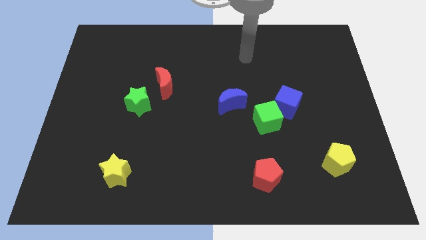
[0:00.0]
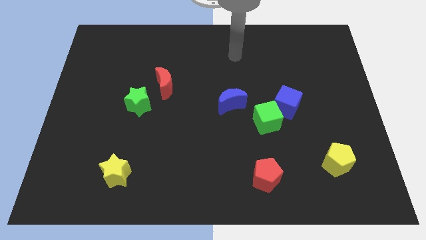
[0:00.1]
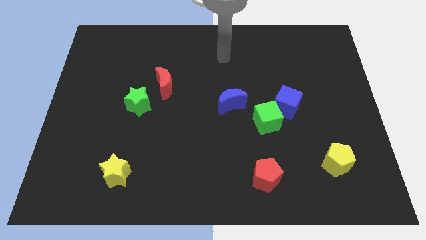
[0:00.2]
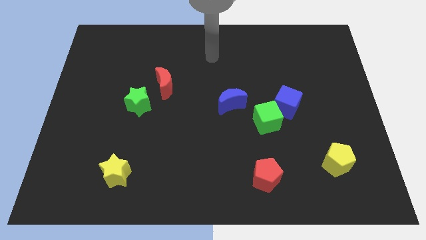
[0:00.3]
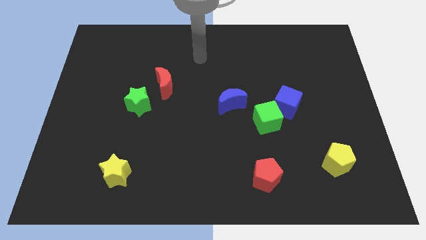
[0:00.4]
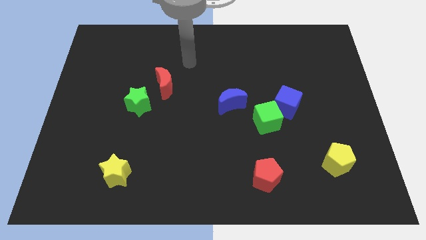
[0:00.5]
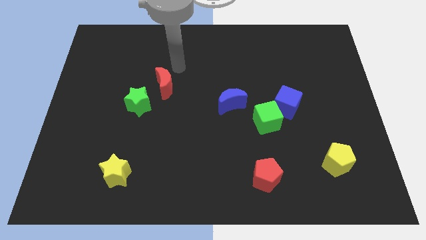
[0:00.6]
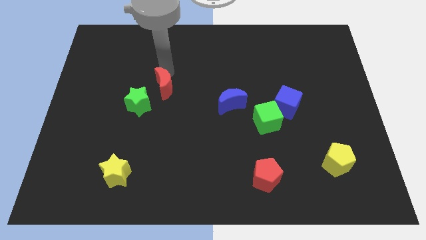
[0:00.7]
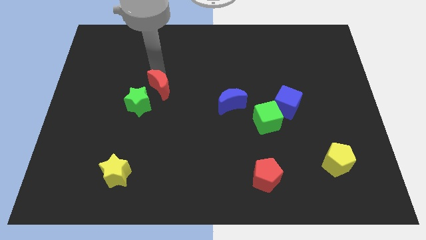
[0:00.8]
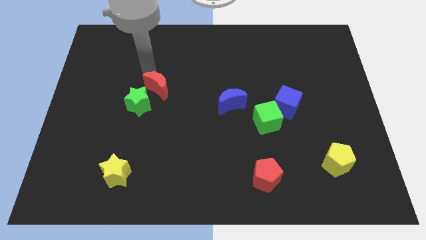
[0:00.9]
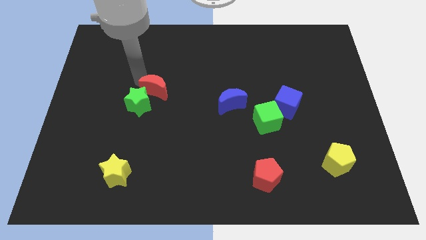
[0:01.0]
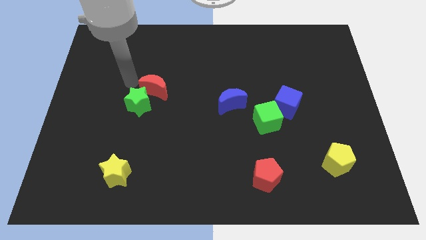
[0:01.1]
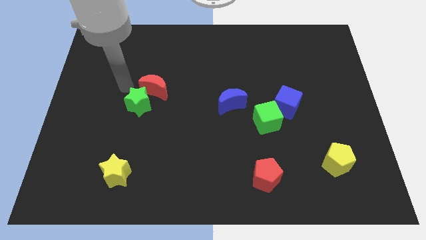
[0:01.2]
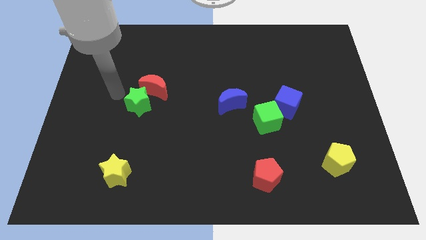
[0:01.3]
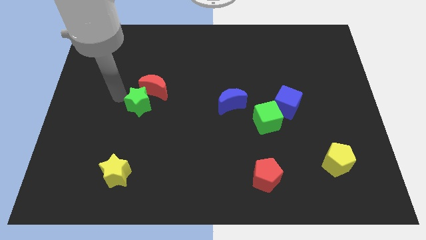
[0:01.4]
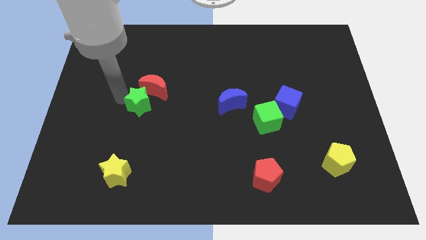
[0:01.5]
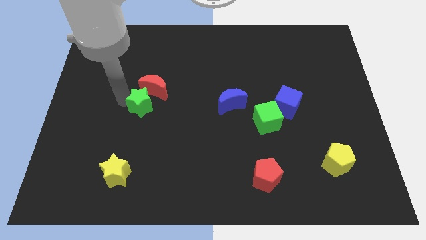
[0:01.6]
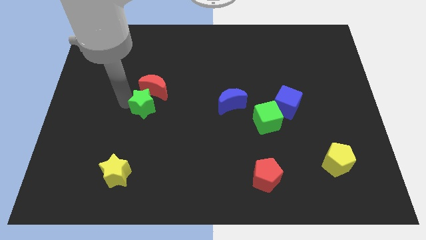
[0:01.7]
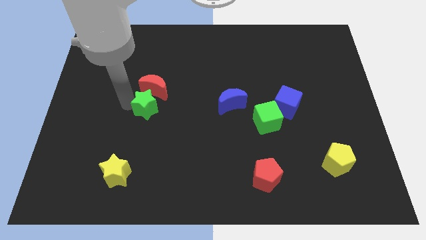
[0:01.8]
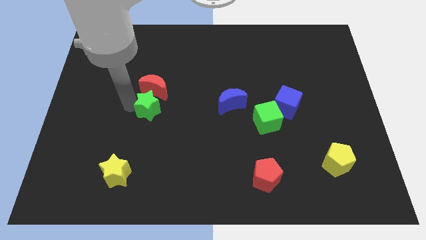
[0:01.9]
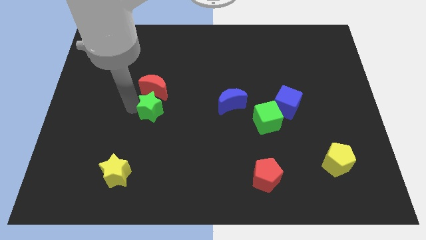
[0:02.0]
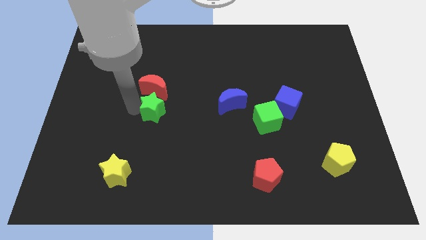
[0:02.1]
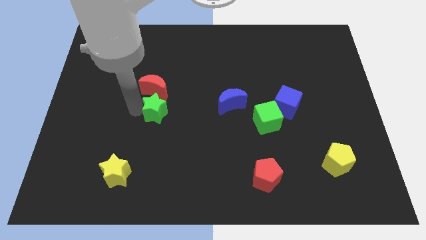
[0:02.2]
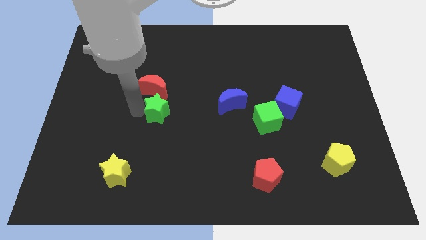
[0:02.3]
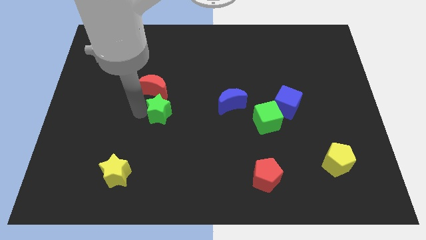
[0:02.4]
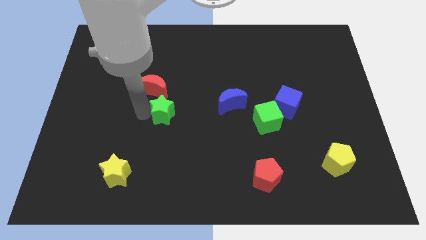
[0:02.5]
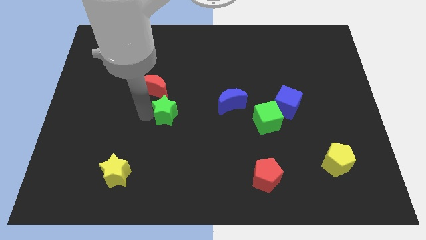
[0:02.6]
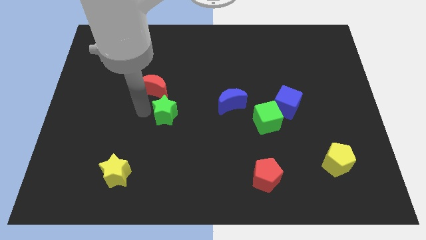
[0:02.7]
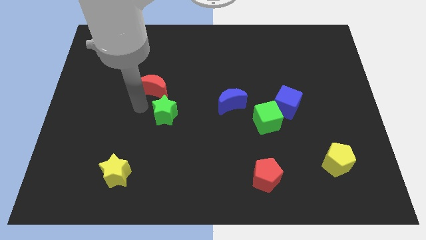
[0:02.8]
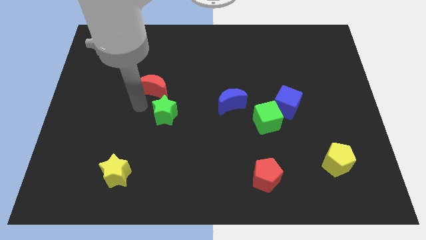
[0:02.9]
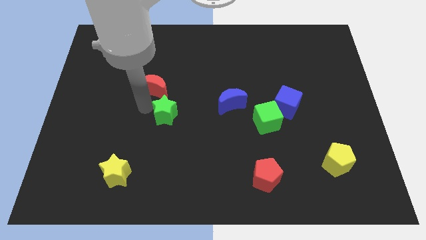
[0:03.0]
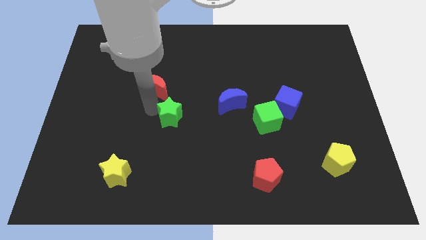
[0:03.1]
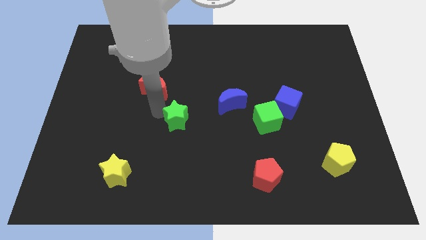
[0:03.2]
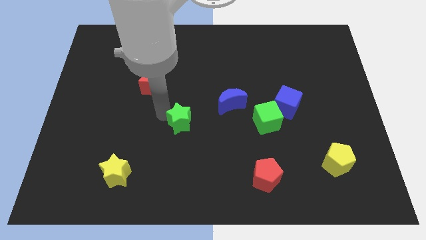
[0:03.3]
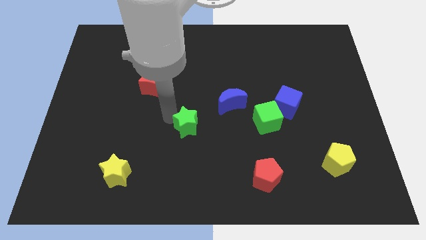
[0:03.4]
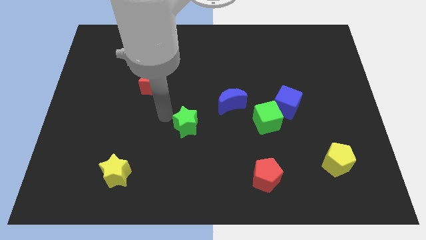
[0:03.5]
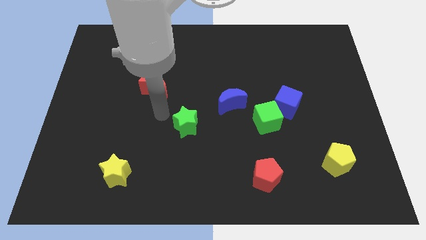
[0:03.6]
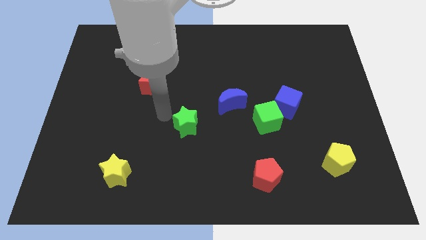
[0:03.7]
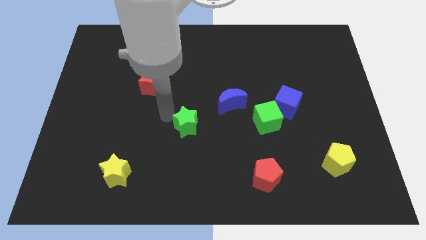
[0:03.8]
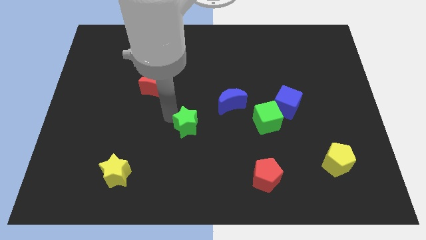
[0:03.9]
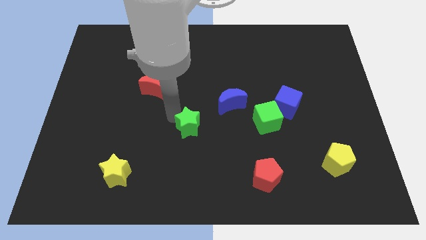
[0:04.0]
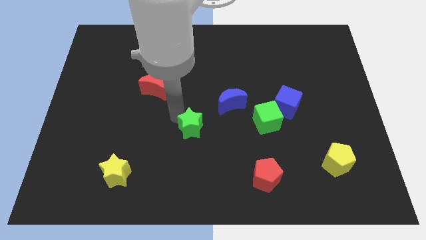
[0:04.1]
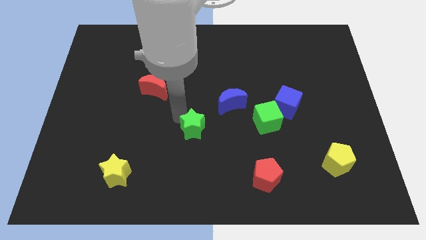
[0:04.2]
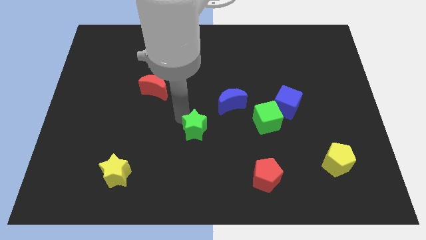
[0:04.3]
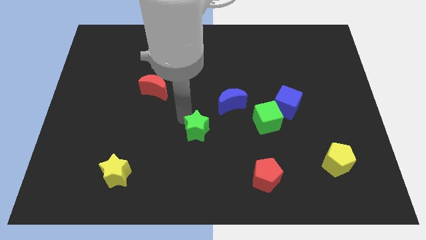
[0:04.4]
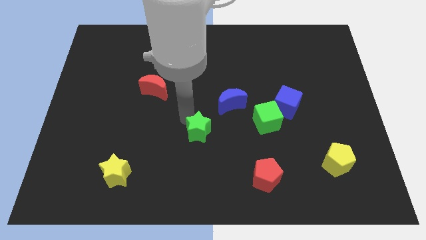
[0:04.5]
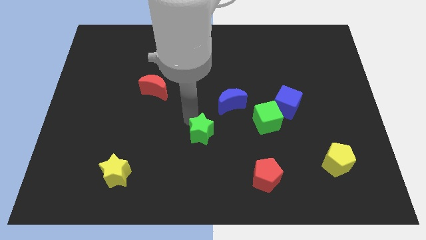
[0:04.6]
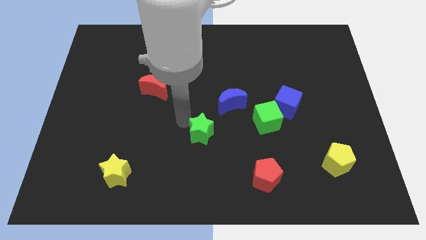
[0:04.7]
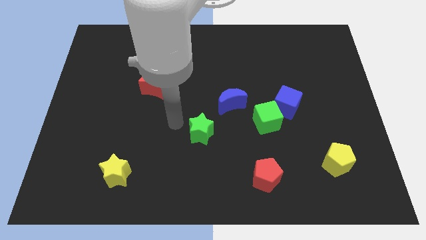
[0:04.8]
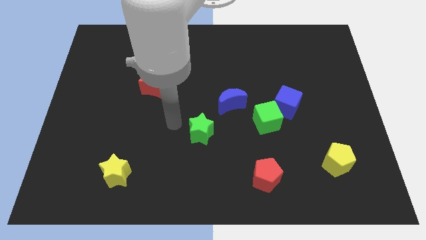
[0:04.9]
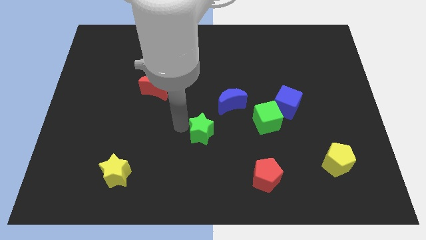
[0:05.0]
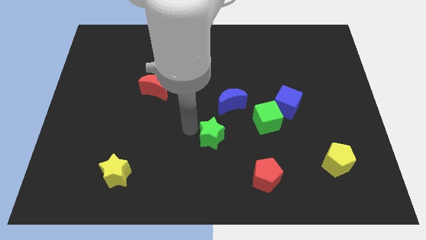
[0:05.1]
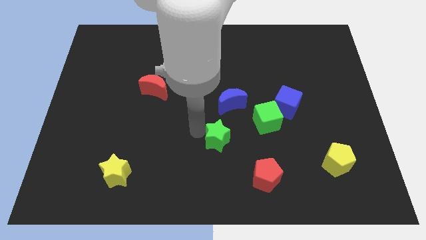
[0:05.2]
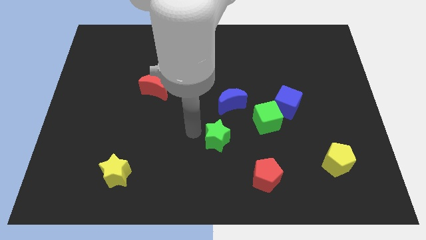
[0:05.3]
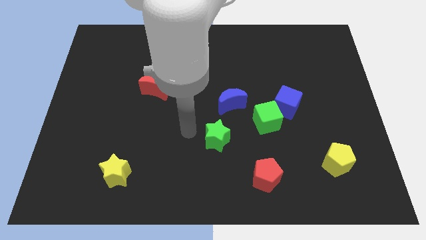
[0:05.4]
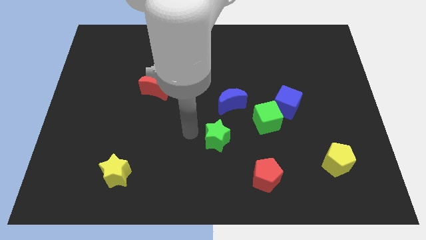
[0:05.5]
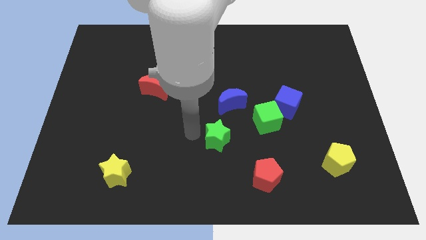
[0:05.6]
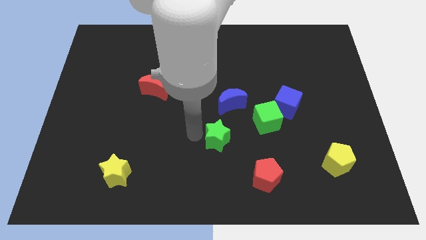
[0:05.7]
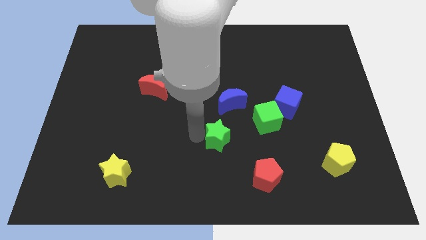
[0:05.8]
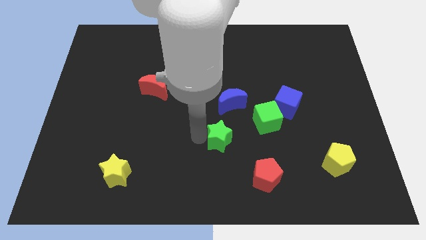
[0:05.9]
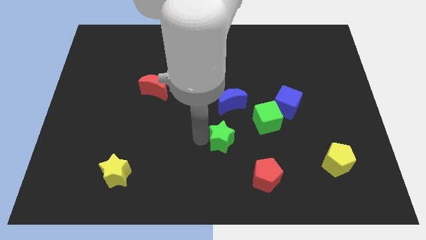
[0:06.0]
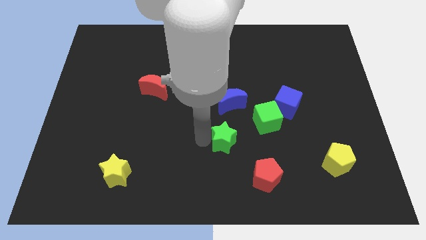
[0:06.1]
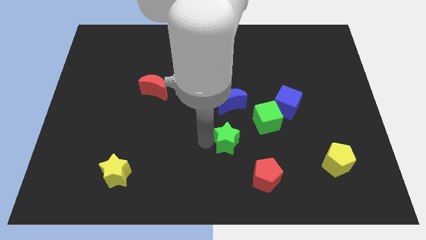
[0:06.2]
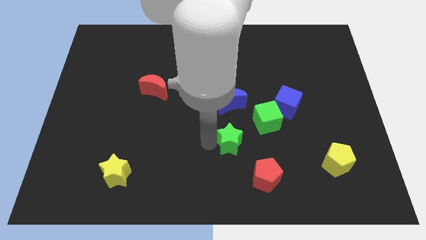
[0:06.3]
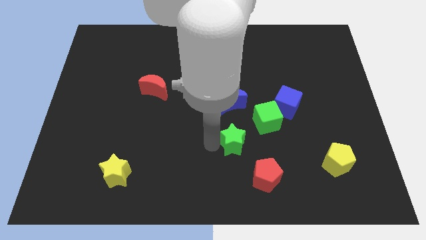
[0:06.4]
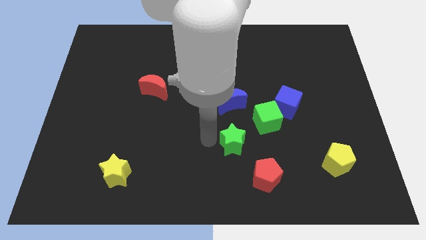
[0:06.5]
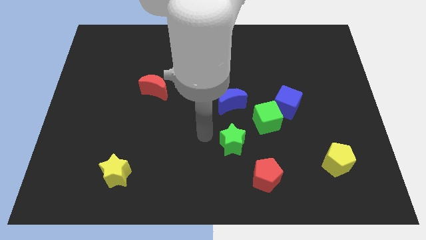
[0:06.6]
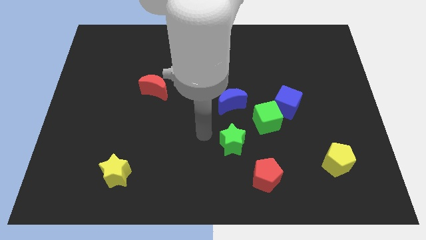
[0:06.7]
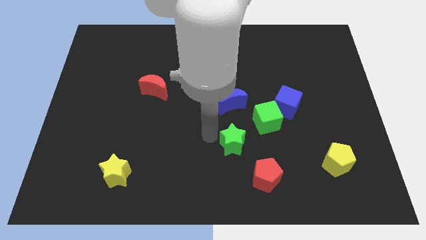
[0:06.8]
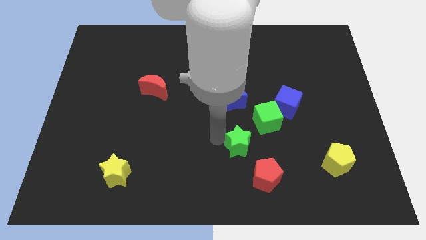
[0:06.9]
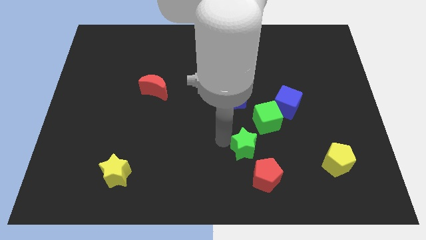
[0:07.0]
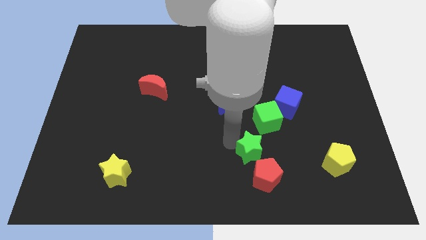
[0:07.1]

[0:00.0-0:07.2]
move the green star to the bottom side of the green cube
